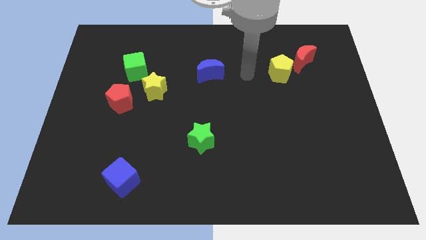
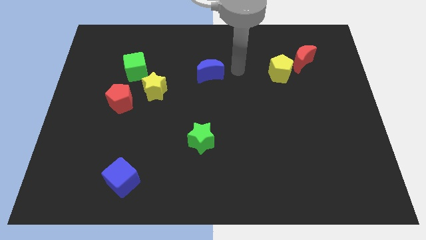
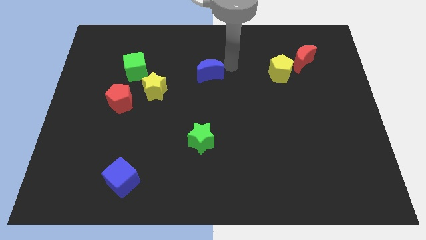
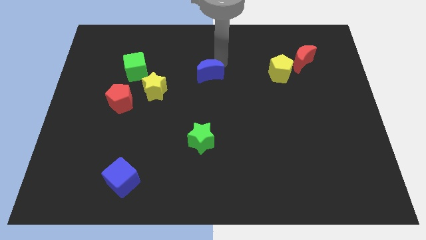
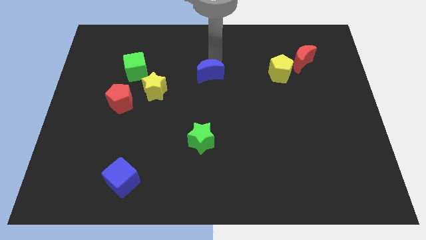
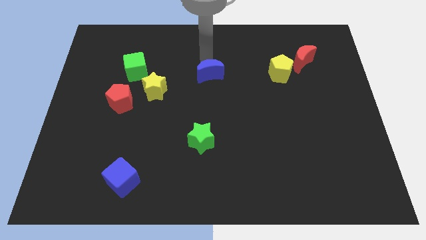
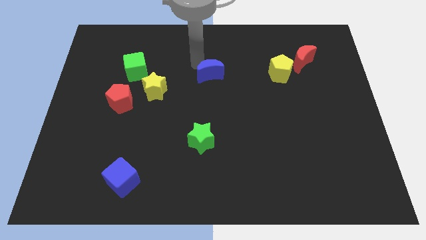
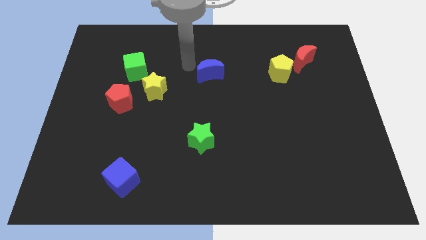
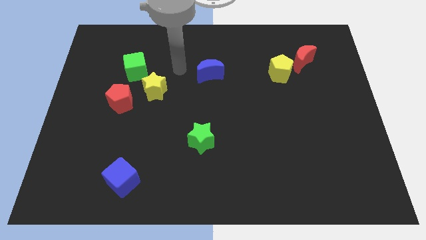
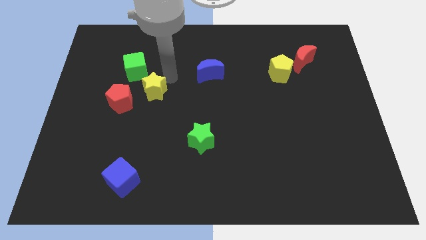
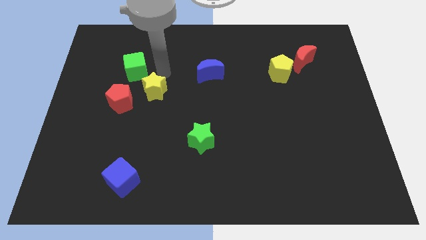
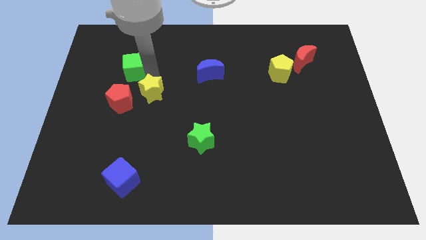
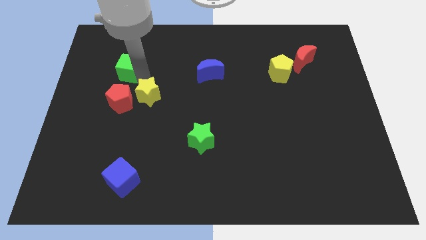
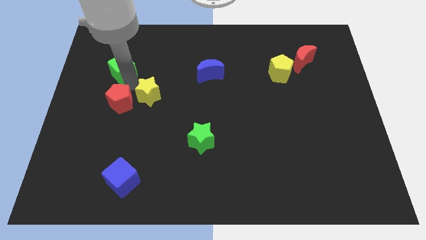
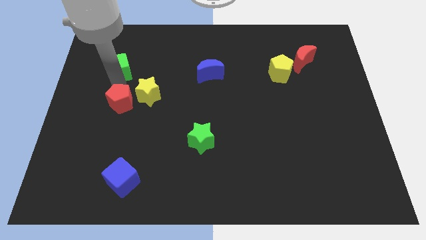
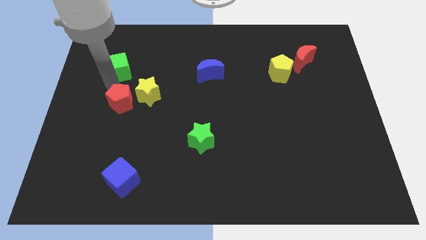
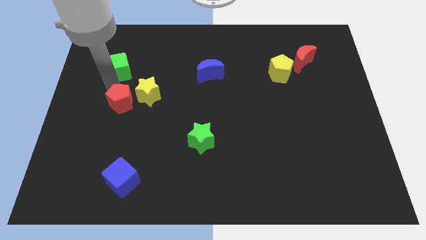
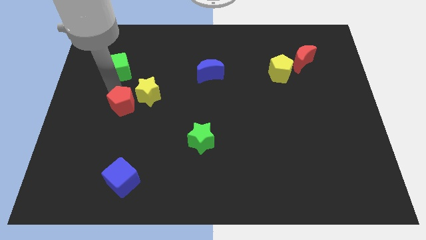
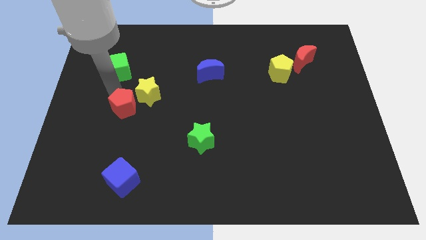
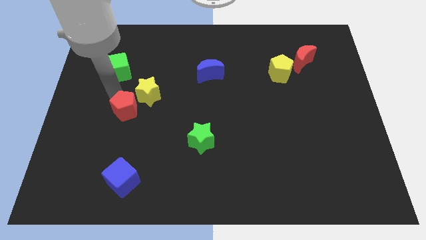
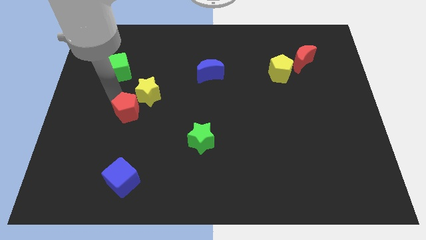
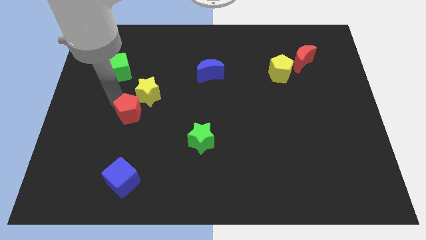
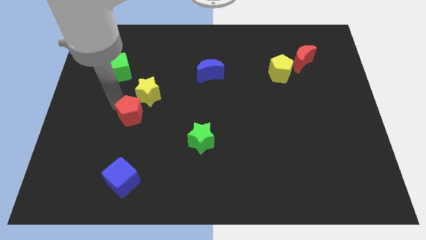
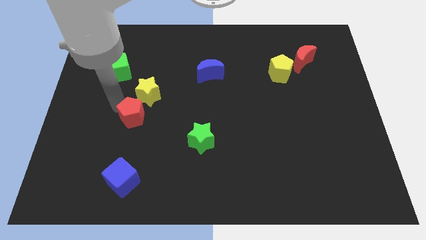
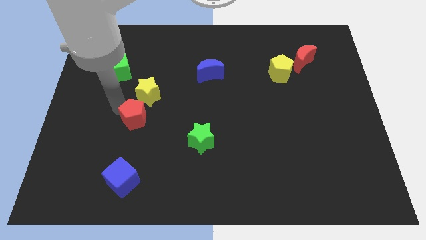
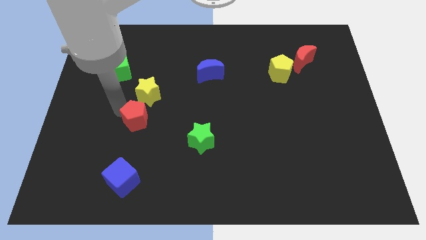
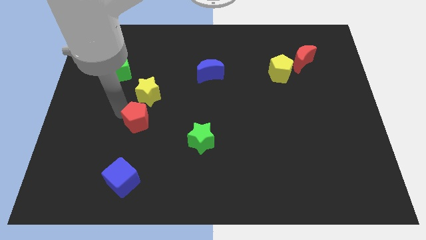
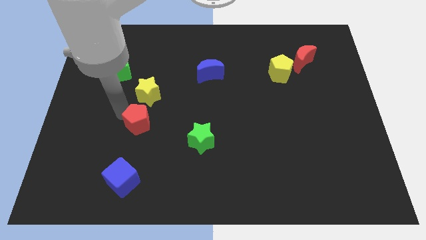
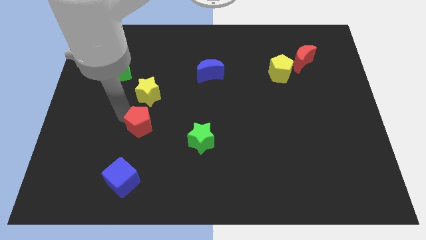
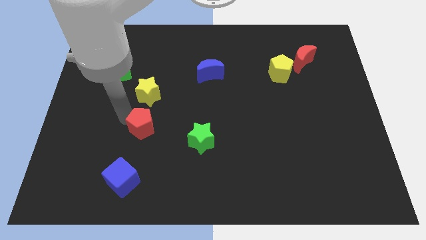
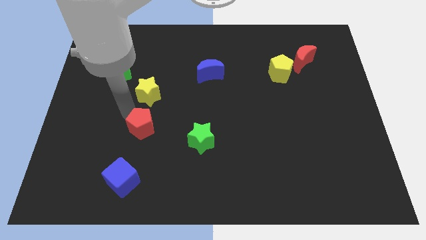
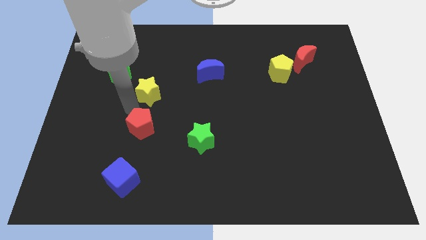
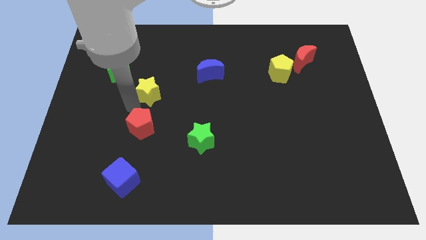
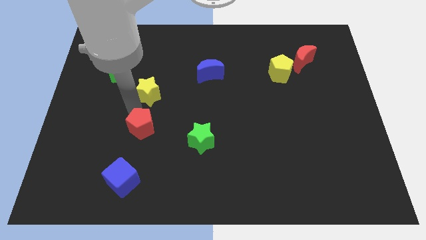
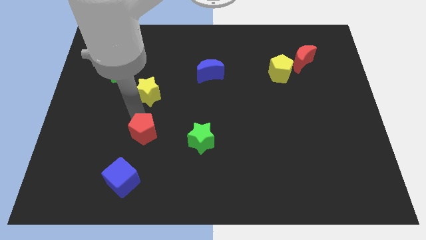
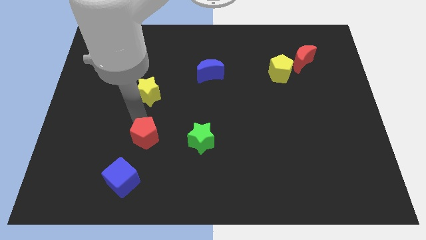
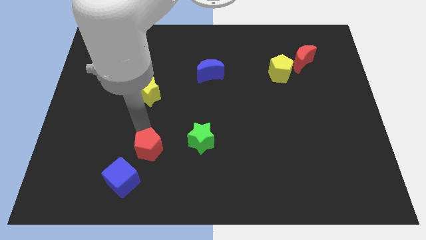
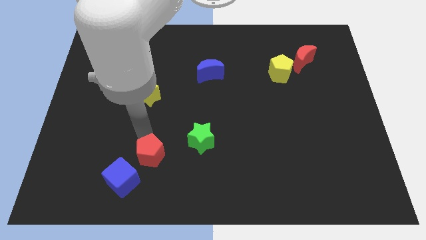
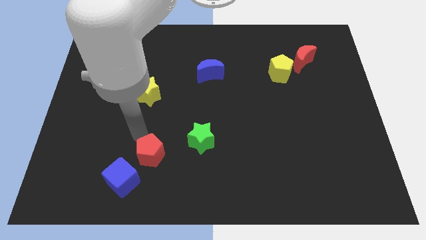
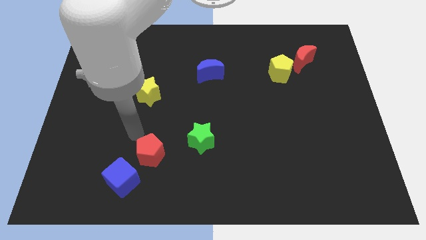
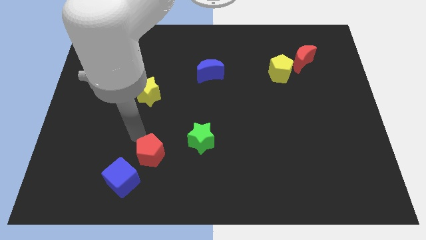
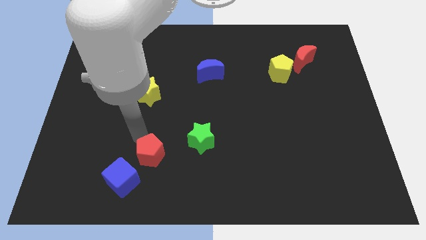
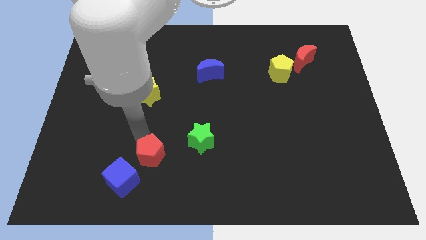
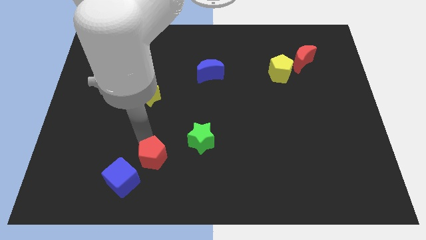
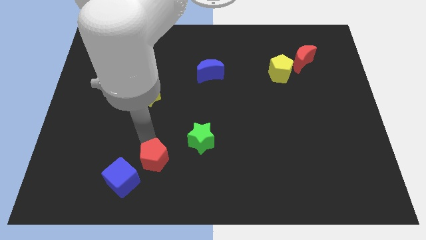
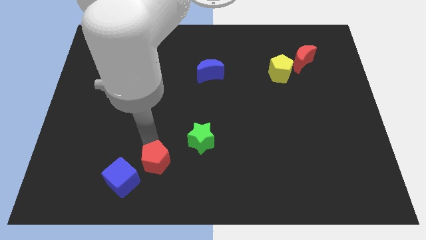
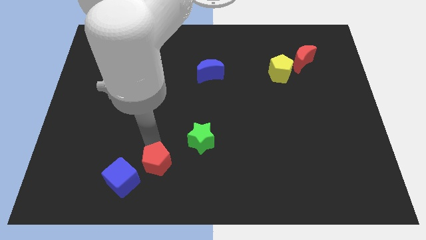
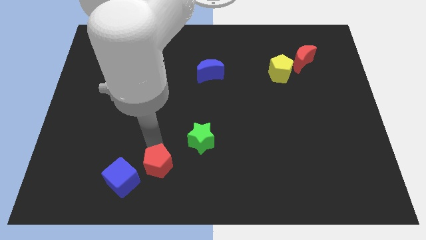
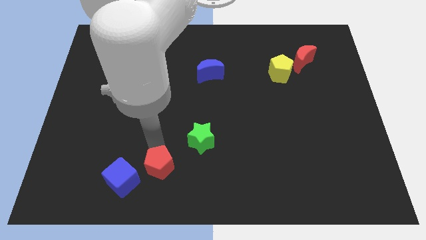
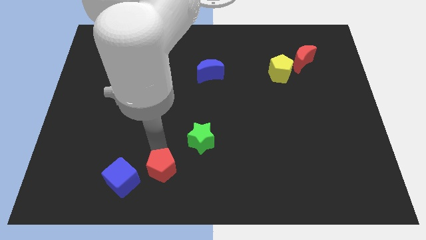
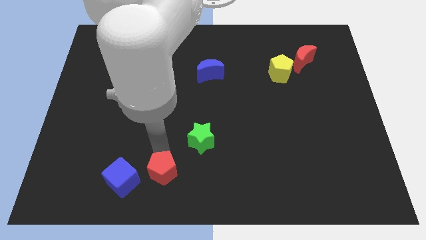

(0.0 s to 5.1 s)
push the red pentagon to the bottom side

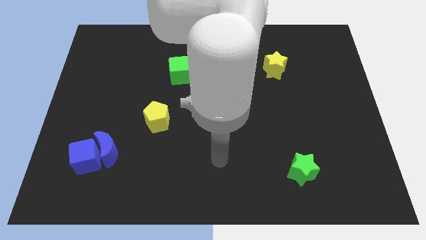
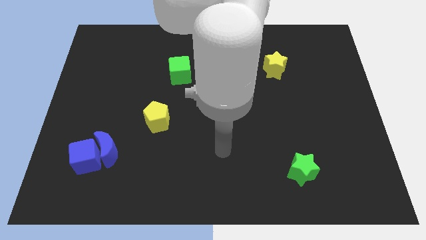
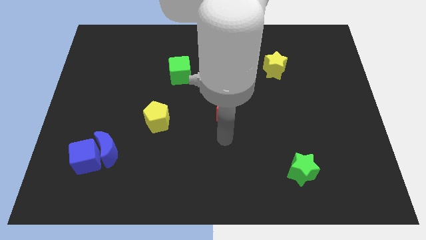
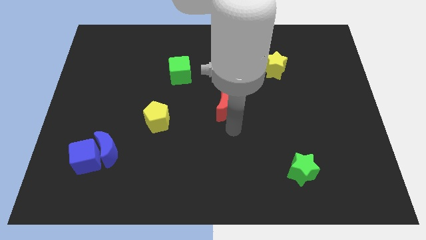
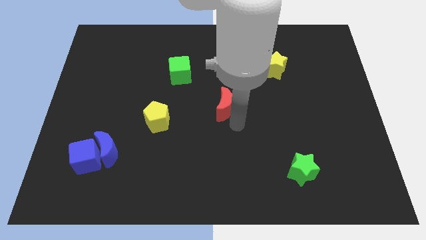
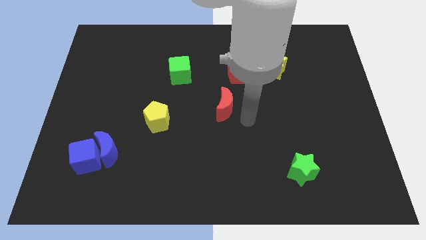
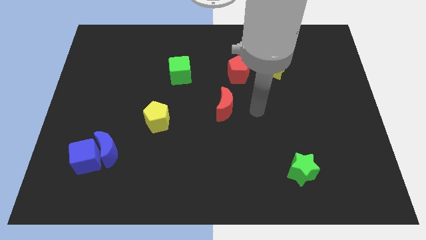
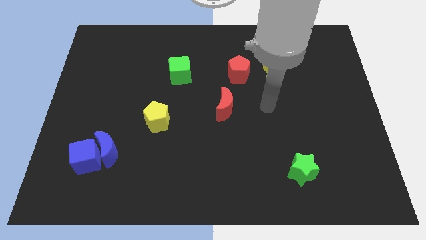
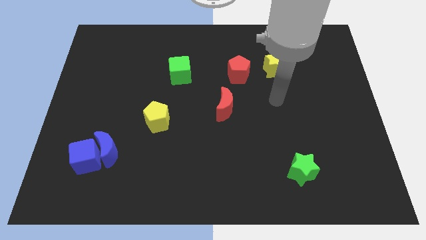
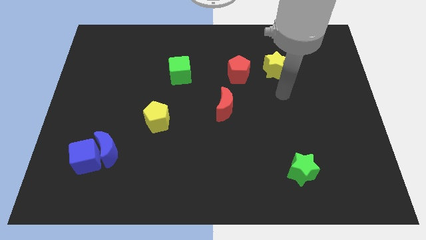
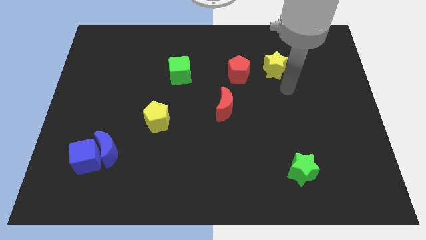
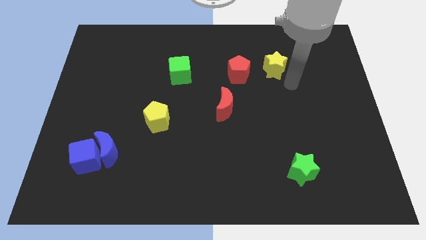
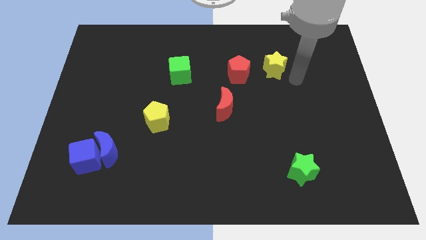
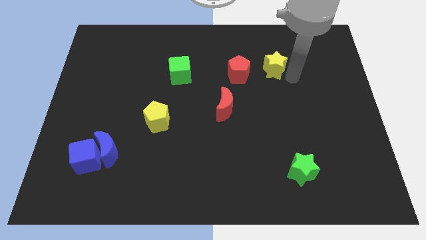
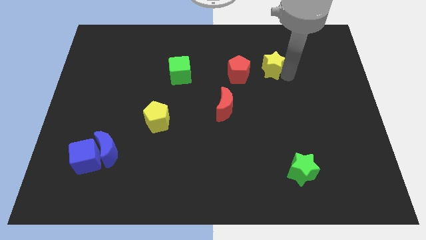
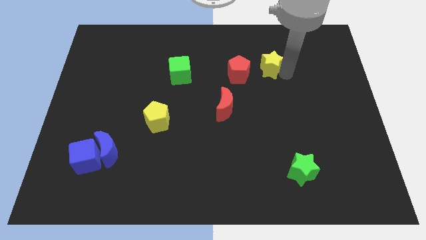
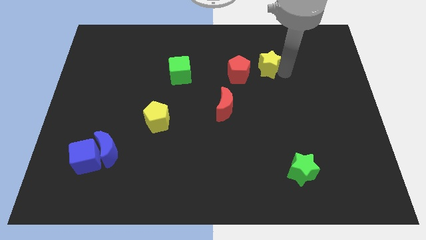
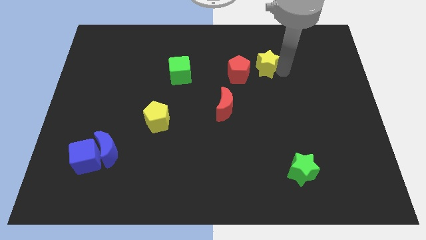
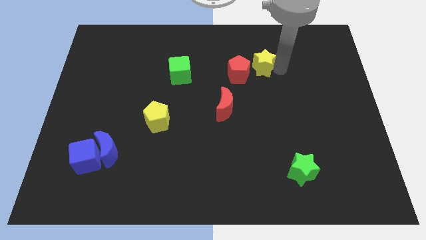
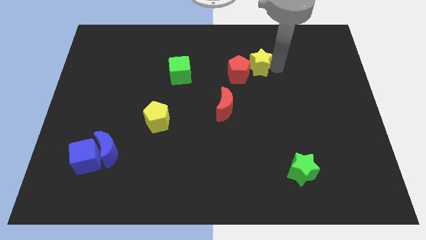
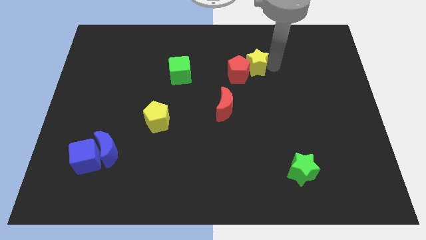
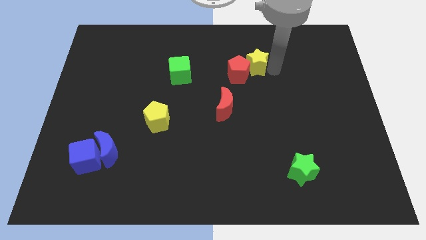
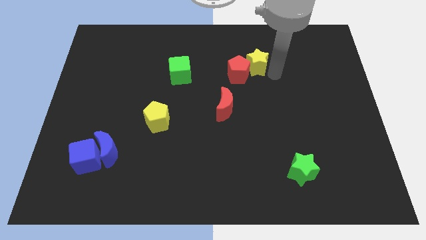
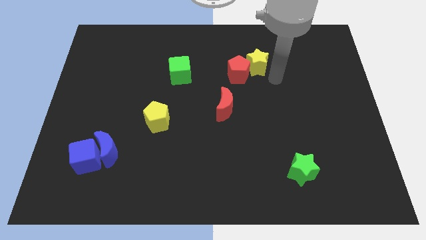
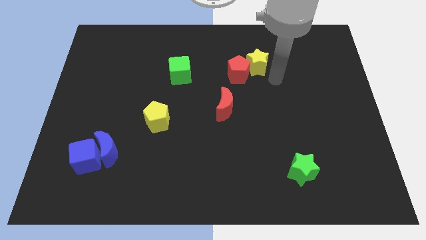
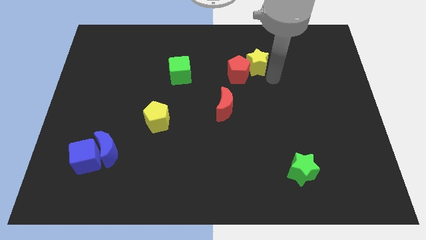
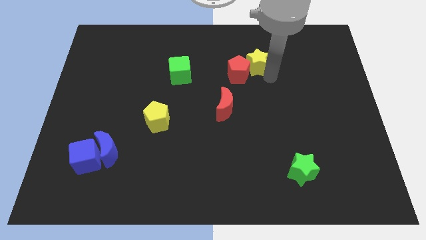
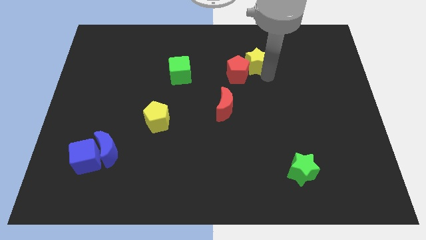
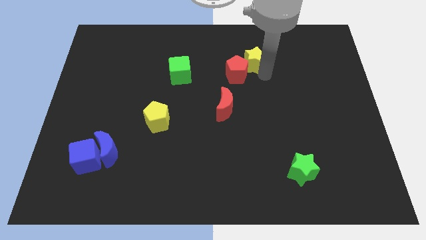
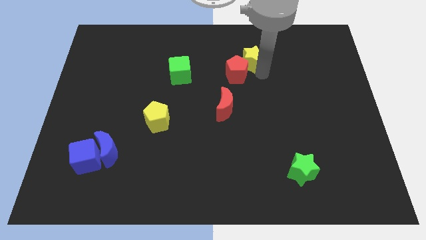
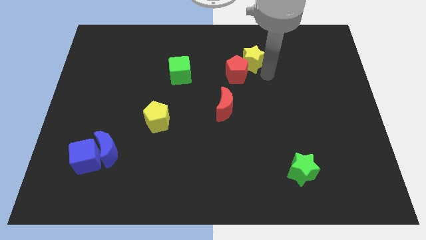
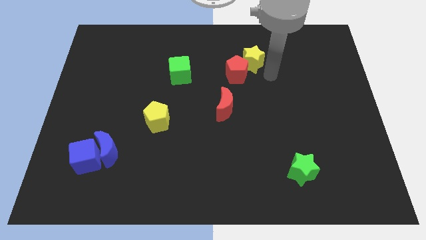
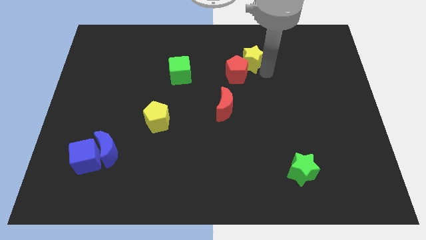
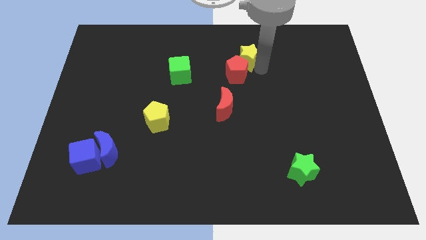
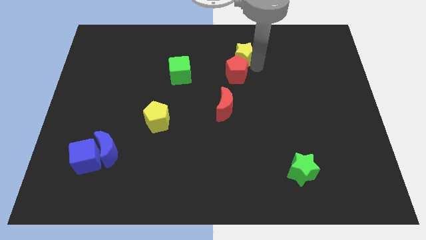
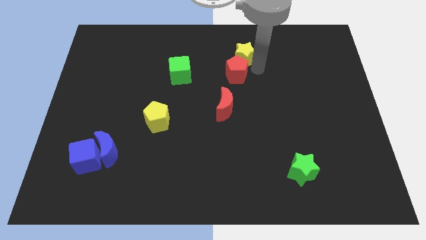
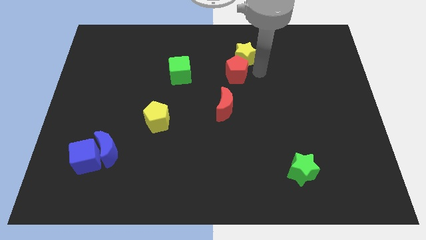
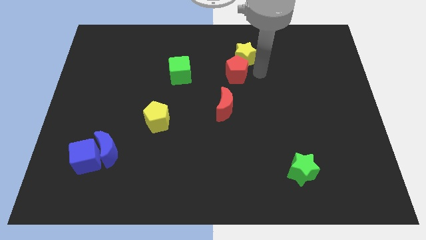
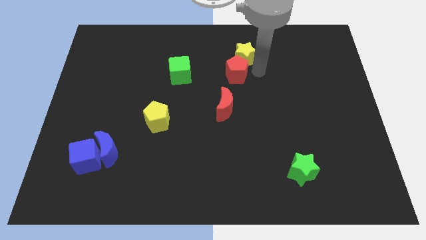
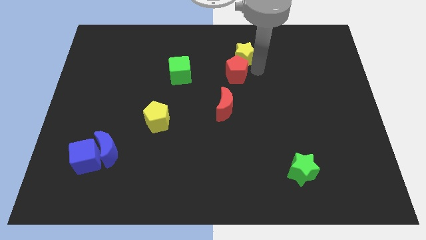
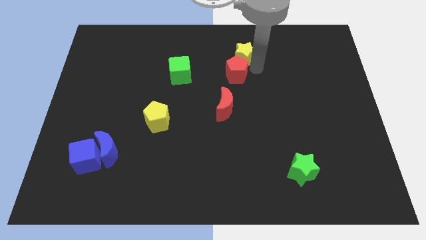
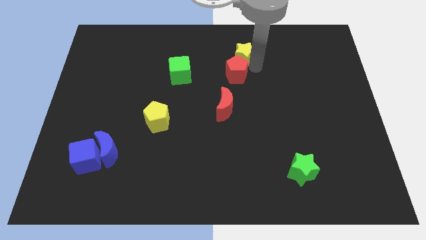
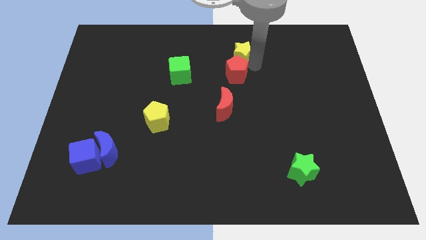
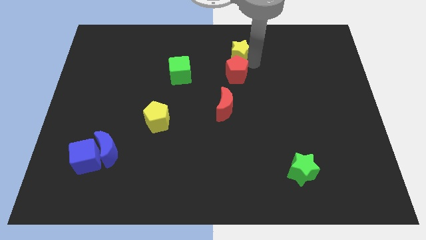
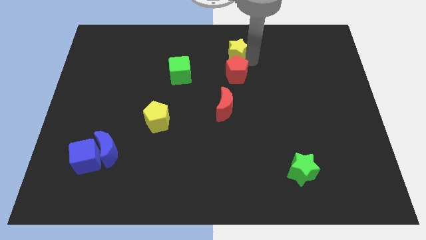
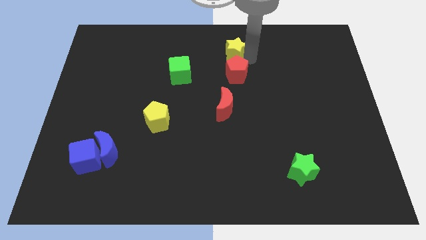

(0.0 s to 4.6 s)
slide the yellow star to the towards your base
